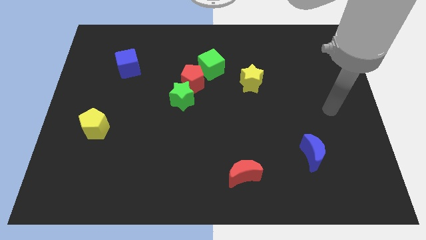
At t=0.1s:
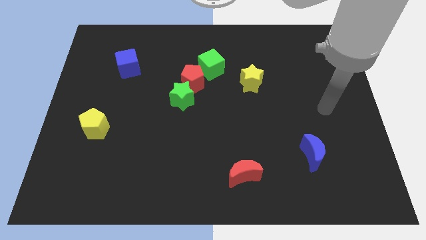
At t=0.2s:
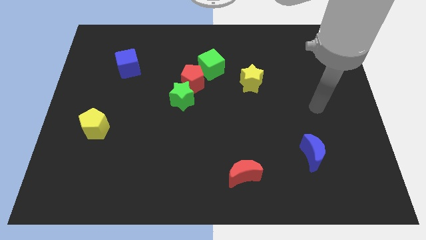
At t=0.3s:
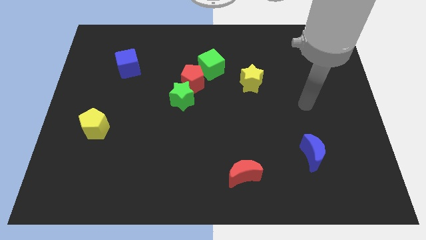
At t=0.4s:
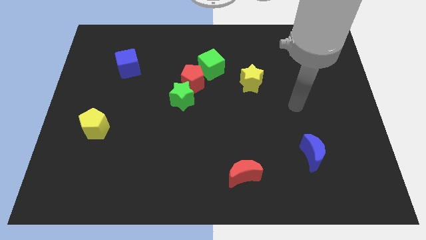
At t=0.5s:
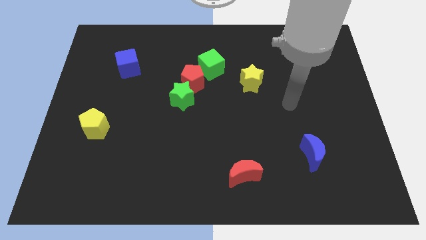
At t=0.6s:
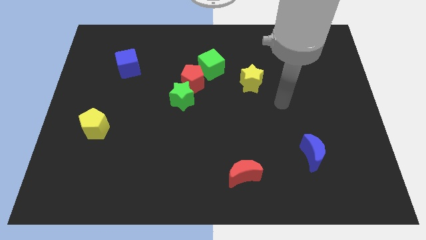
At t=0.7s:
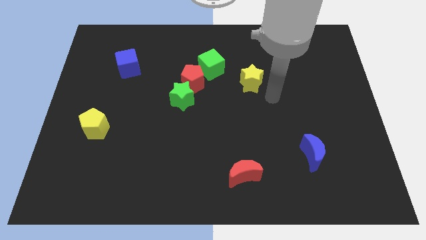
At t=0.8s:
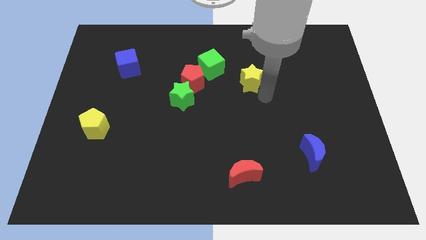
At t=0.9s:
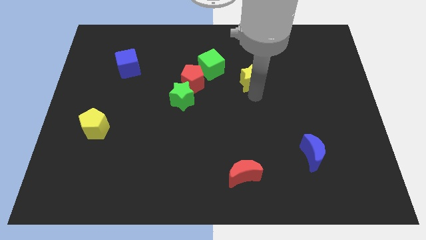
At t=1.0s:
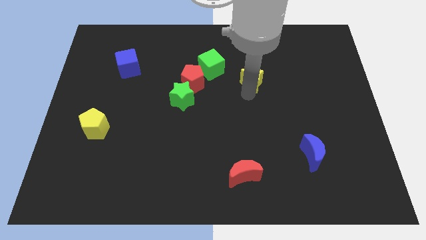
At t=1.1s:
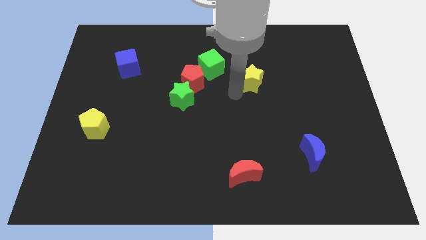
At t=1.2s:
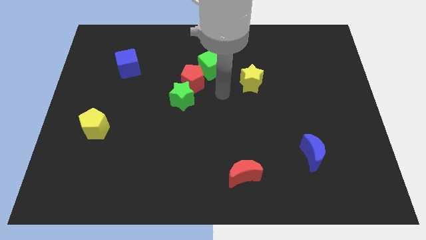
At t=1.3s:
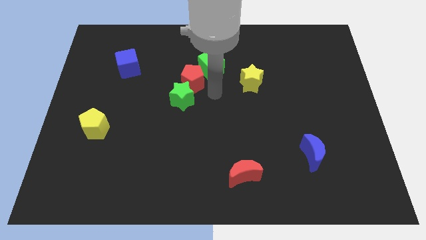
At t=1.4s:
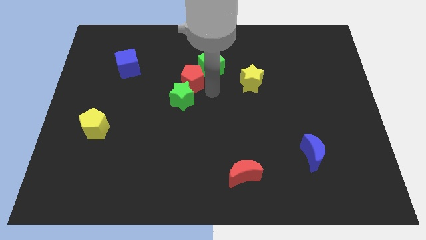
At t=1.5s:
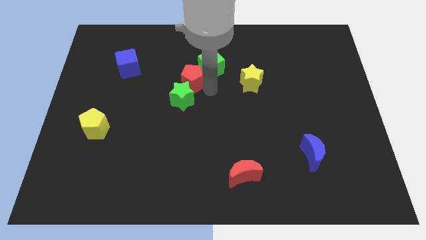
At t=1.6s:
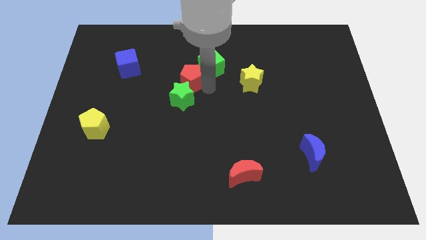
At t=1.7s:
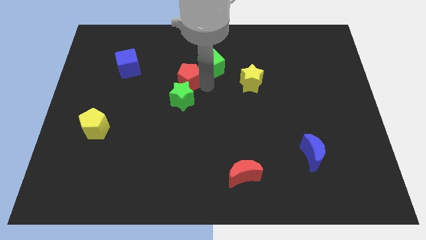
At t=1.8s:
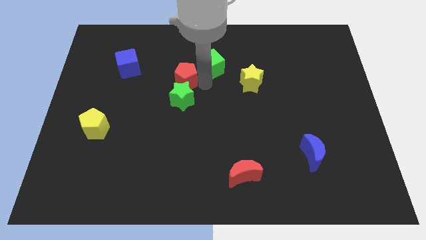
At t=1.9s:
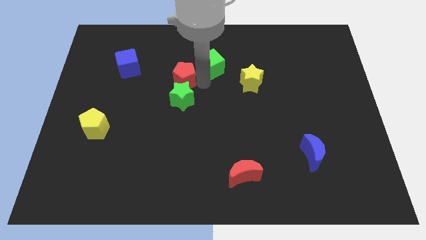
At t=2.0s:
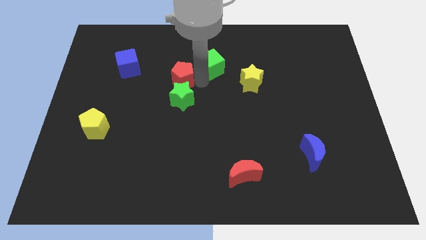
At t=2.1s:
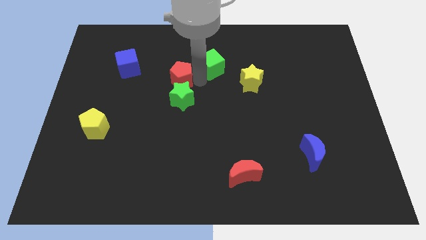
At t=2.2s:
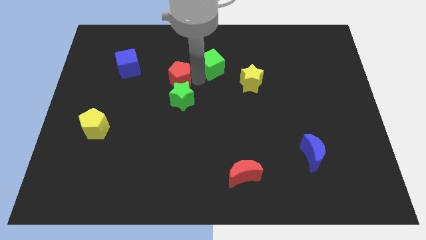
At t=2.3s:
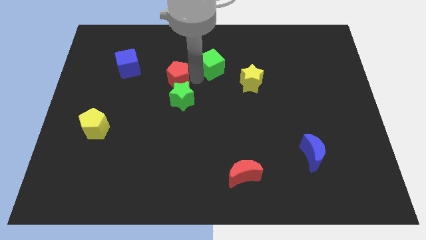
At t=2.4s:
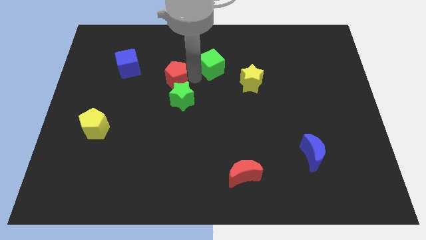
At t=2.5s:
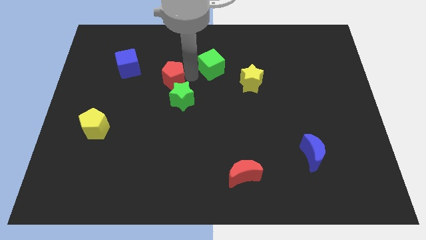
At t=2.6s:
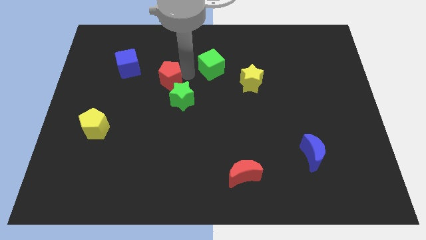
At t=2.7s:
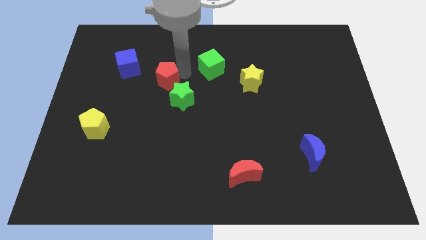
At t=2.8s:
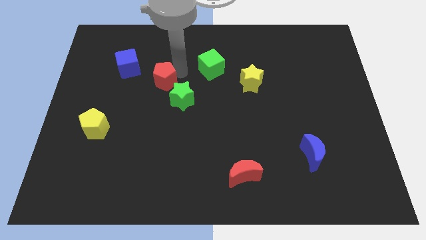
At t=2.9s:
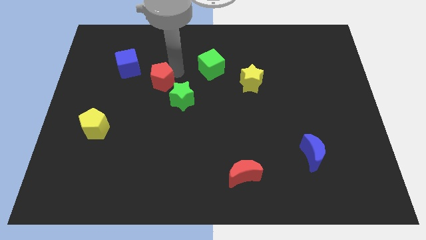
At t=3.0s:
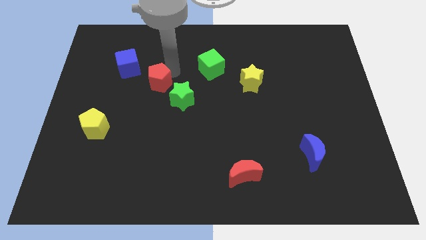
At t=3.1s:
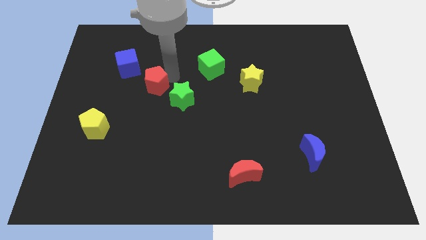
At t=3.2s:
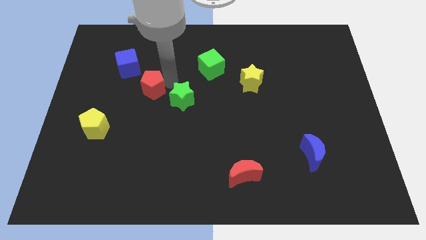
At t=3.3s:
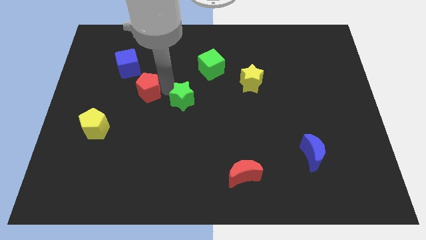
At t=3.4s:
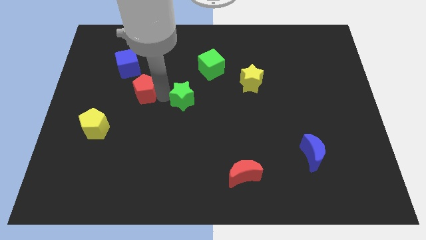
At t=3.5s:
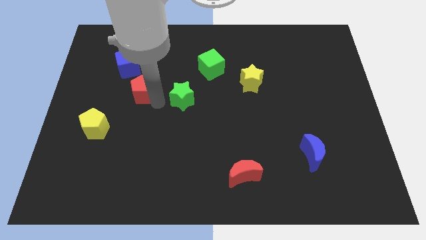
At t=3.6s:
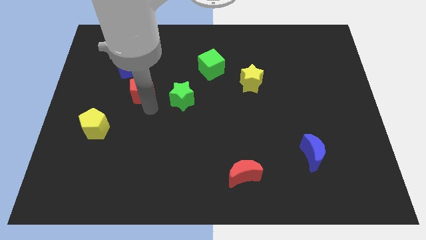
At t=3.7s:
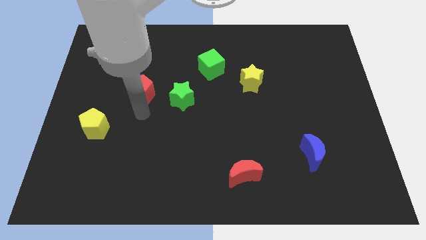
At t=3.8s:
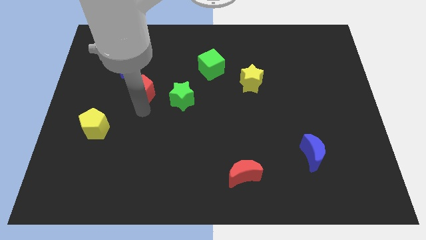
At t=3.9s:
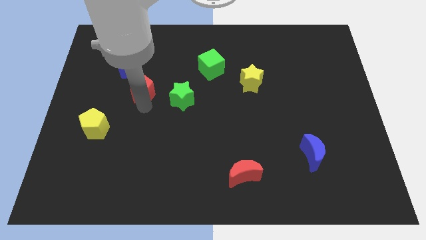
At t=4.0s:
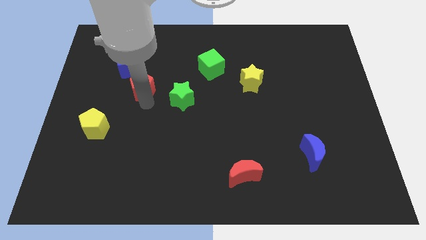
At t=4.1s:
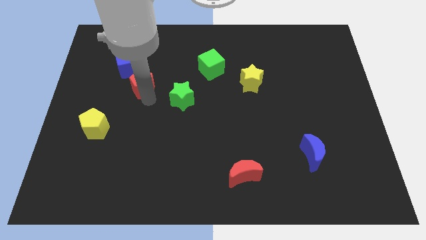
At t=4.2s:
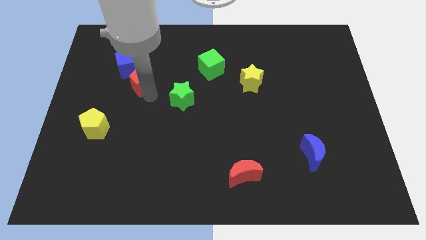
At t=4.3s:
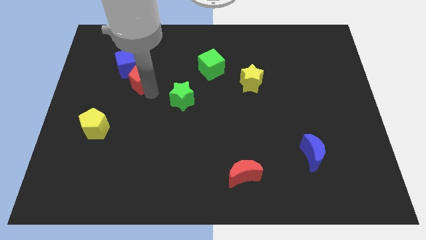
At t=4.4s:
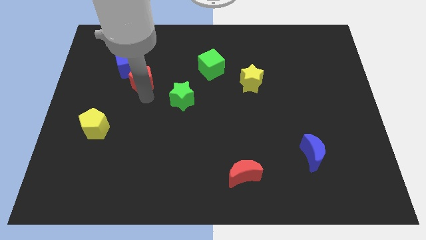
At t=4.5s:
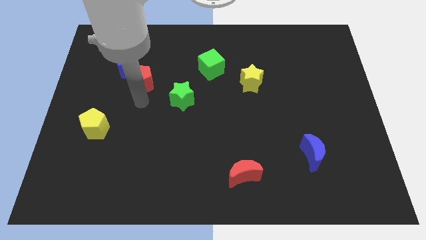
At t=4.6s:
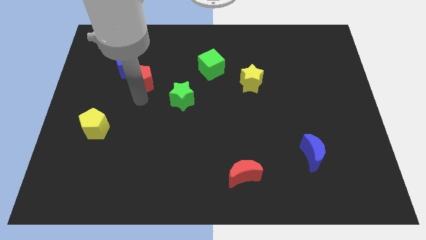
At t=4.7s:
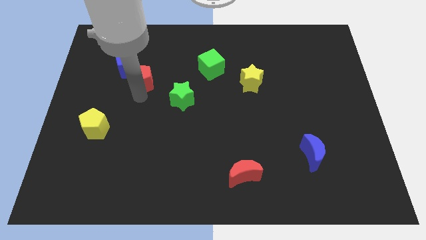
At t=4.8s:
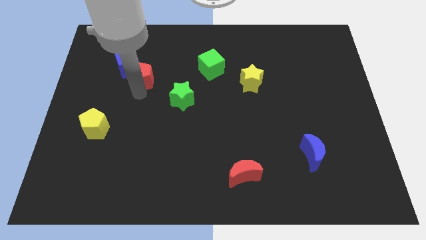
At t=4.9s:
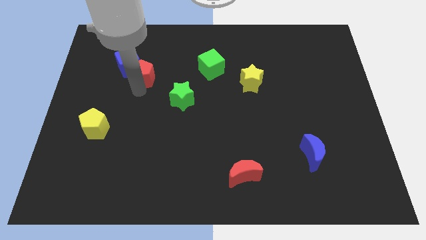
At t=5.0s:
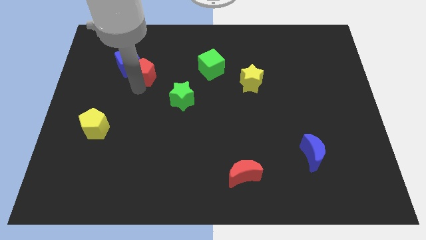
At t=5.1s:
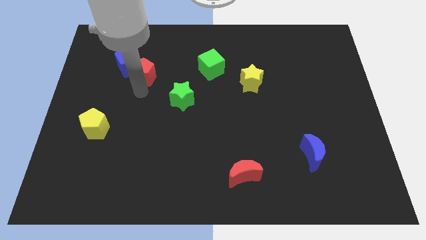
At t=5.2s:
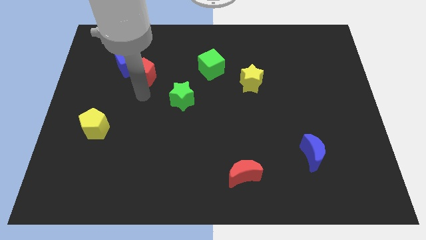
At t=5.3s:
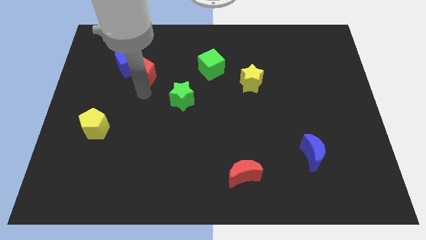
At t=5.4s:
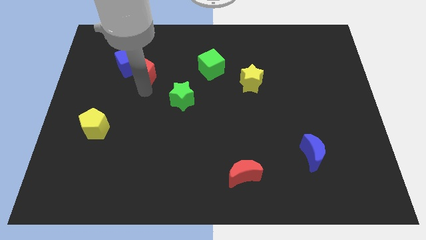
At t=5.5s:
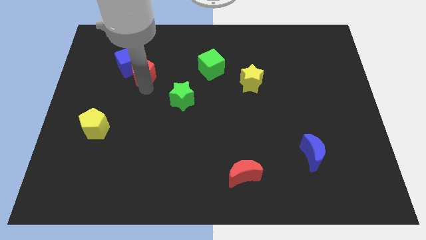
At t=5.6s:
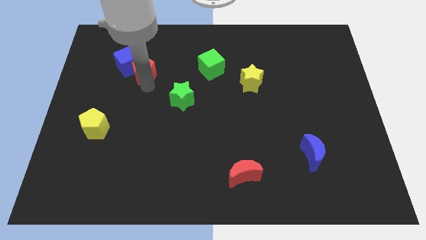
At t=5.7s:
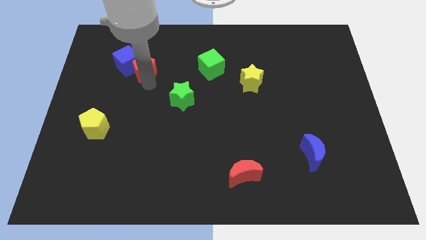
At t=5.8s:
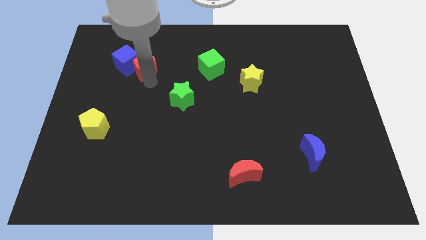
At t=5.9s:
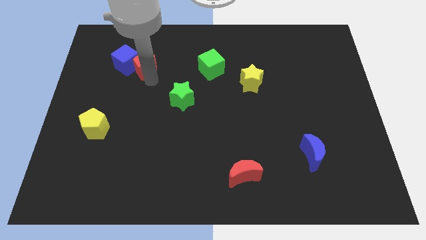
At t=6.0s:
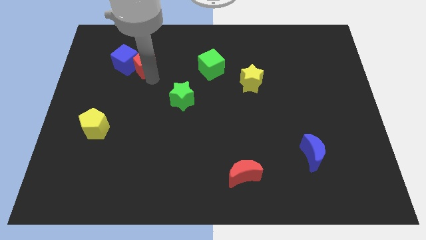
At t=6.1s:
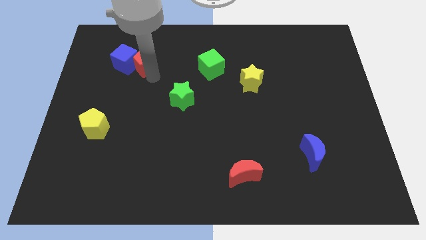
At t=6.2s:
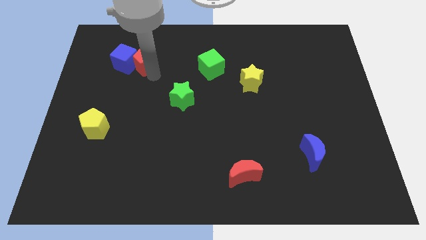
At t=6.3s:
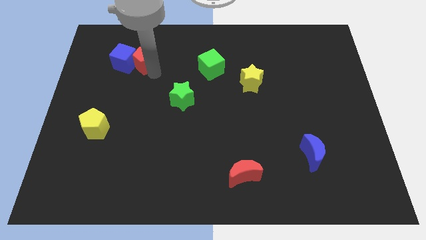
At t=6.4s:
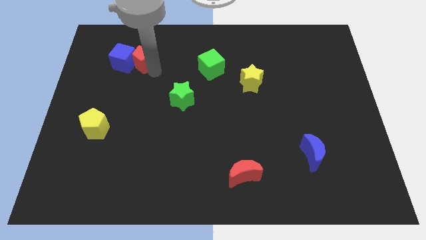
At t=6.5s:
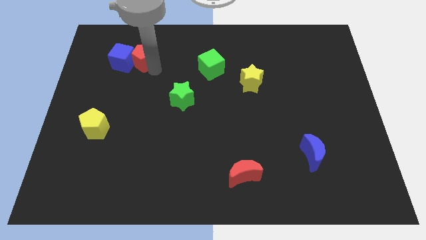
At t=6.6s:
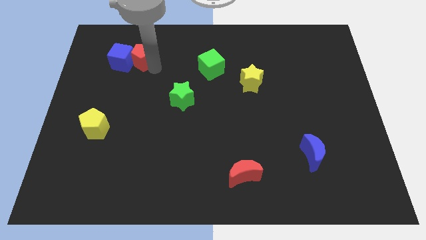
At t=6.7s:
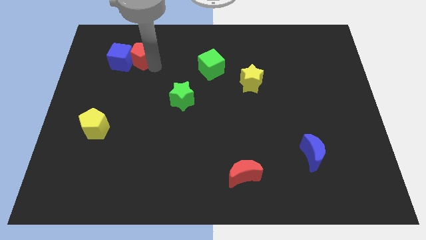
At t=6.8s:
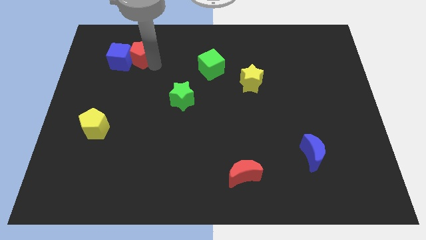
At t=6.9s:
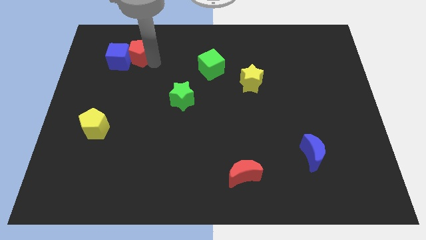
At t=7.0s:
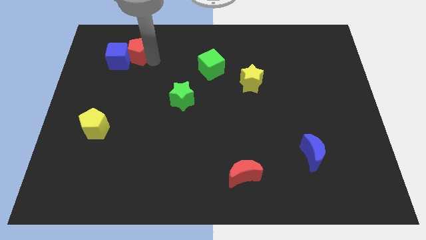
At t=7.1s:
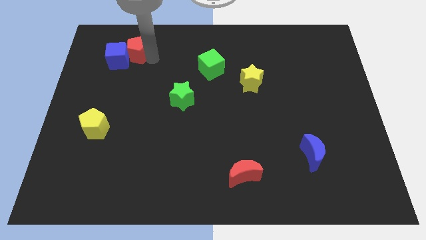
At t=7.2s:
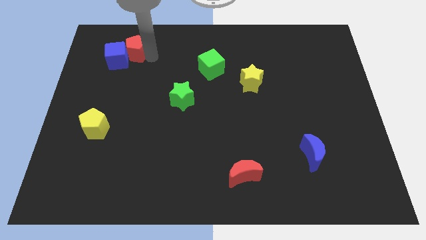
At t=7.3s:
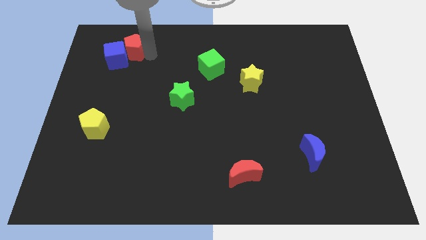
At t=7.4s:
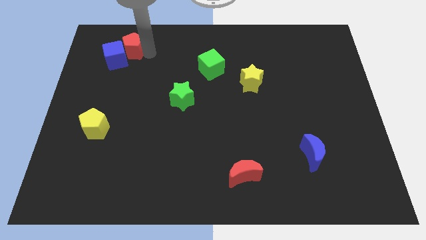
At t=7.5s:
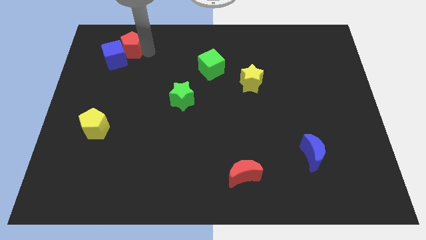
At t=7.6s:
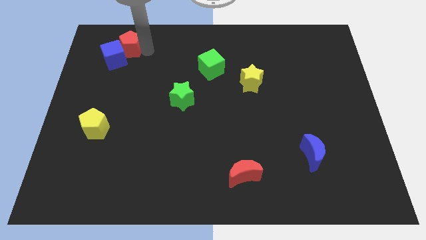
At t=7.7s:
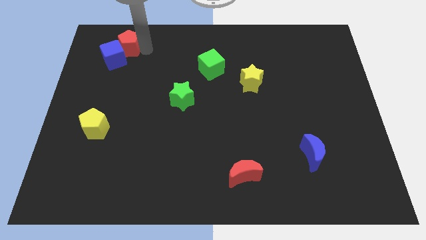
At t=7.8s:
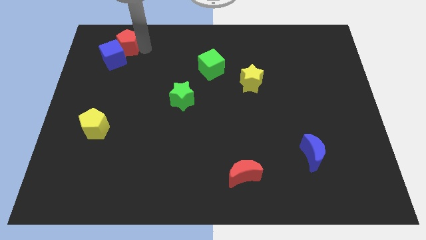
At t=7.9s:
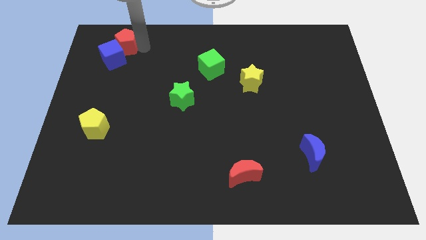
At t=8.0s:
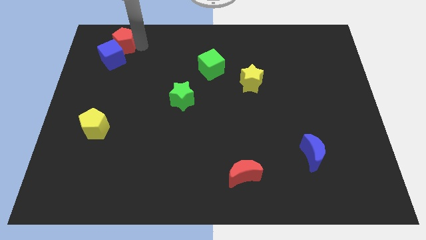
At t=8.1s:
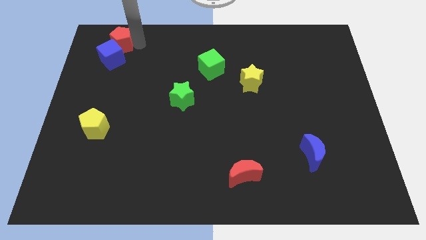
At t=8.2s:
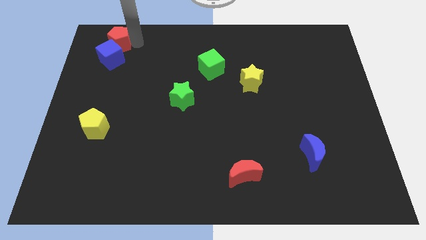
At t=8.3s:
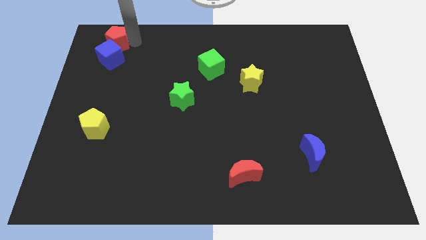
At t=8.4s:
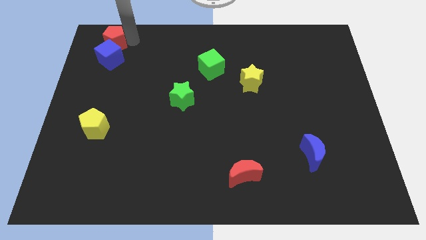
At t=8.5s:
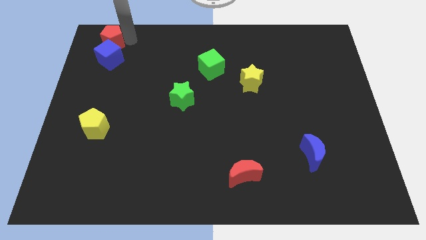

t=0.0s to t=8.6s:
slide the red pentagon to the top left of the board
